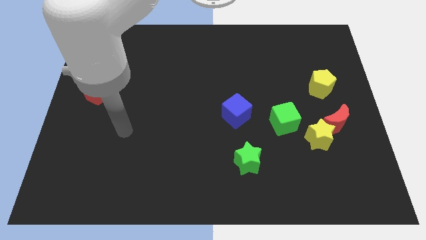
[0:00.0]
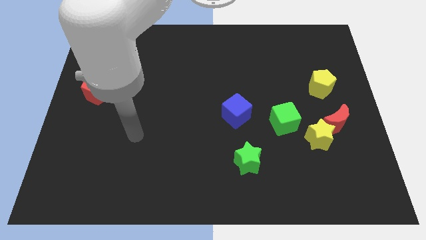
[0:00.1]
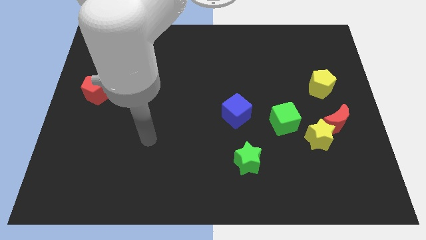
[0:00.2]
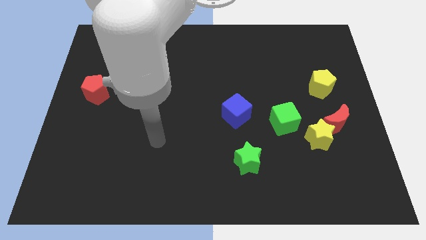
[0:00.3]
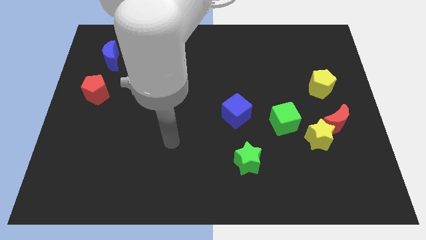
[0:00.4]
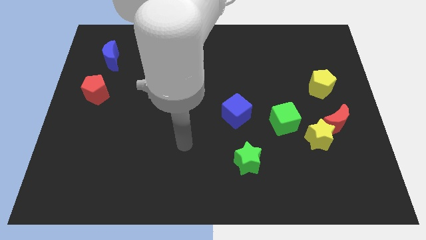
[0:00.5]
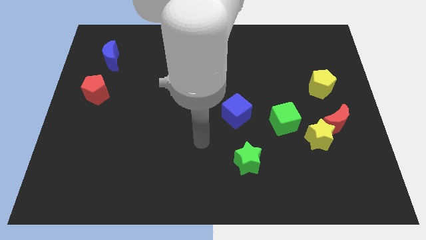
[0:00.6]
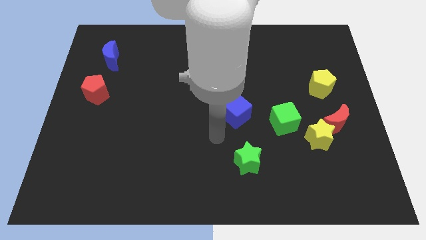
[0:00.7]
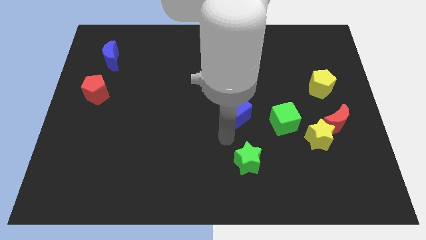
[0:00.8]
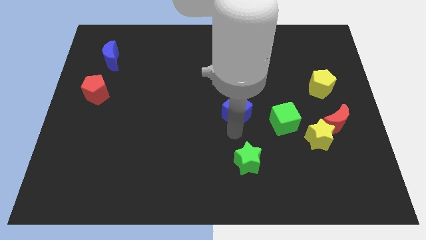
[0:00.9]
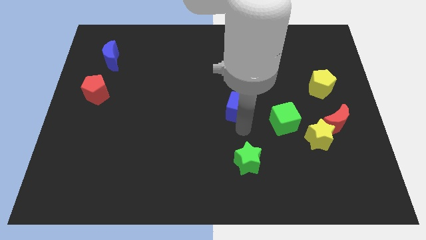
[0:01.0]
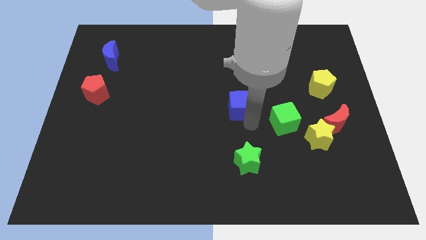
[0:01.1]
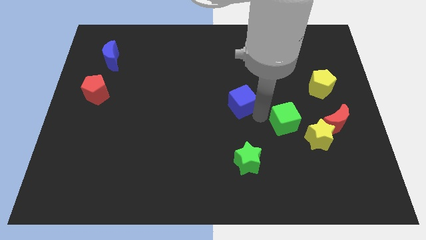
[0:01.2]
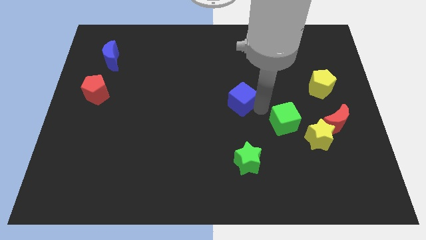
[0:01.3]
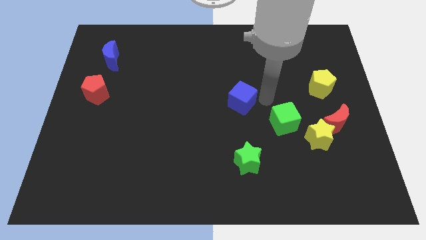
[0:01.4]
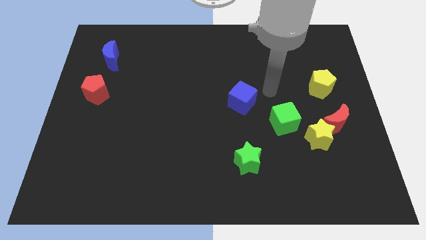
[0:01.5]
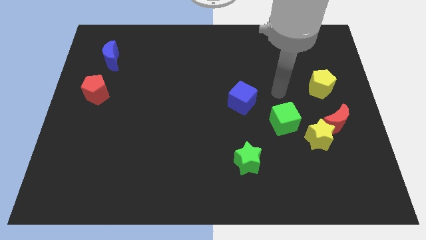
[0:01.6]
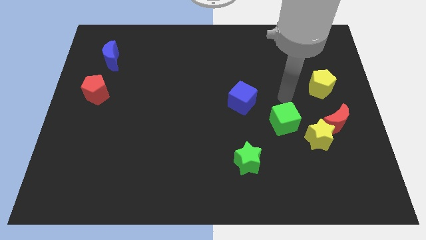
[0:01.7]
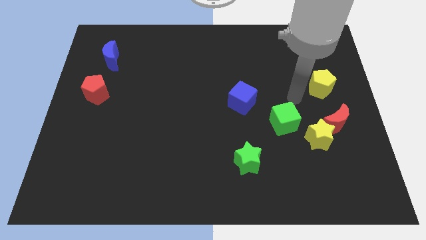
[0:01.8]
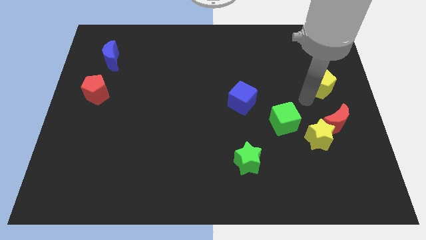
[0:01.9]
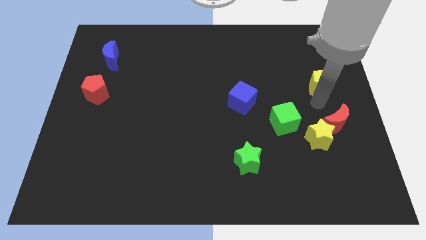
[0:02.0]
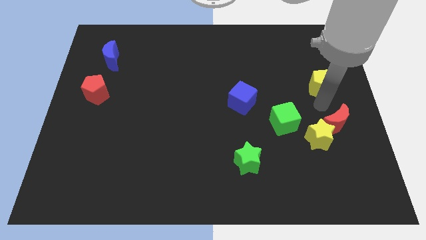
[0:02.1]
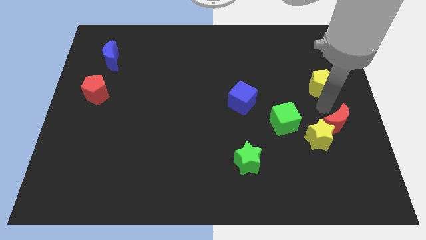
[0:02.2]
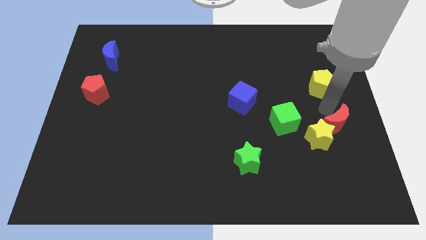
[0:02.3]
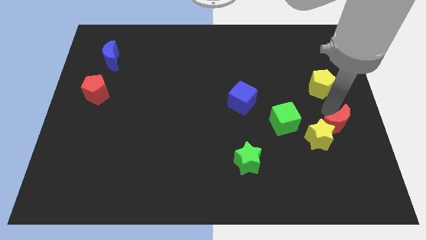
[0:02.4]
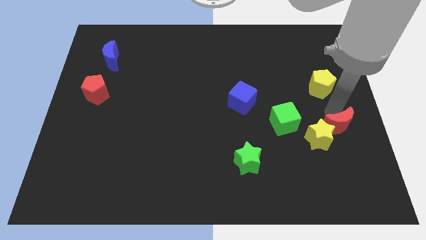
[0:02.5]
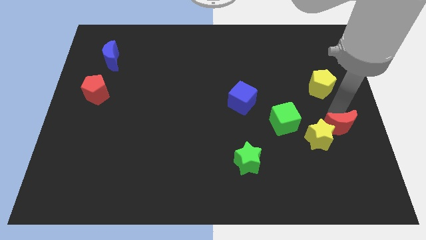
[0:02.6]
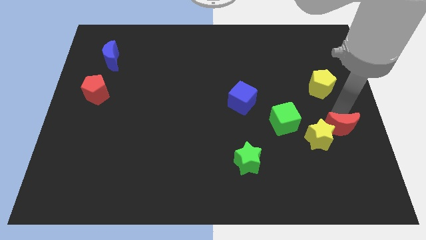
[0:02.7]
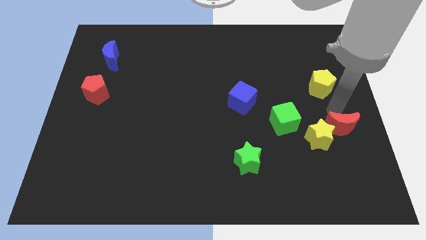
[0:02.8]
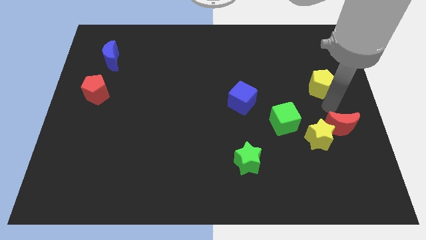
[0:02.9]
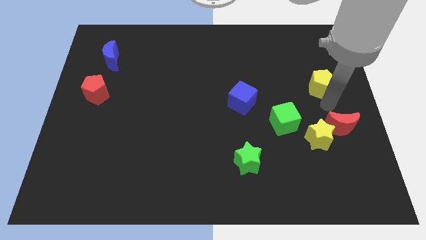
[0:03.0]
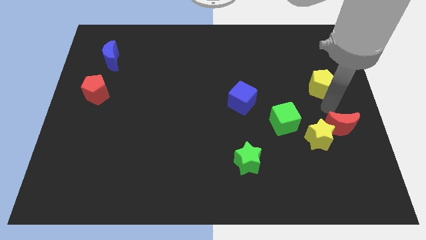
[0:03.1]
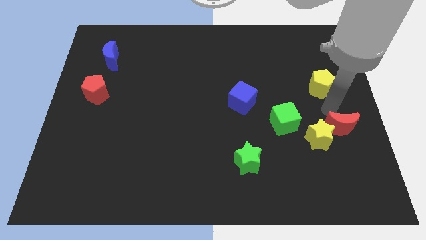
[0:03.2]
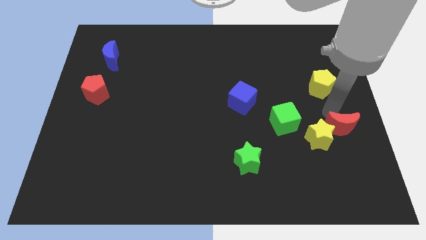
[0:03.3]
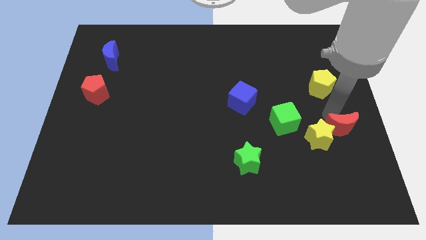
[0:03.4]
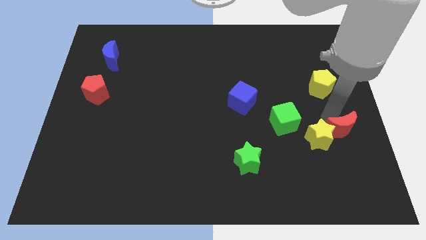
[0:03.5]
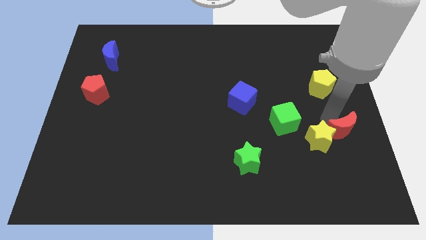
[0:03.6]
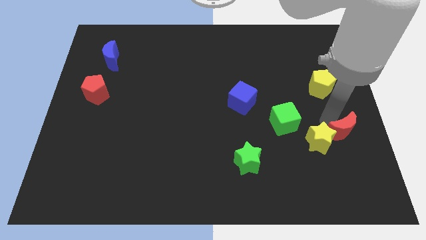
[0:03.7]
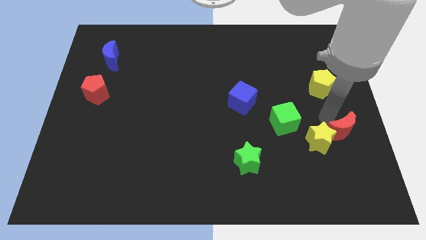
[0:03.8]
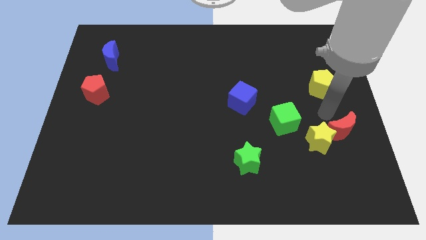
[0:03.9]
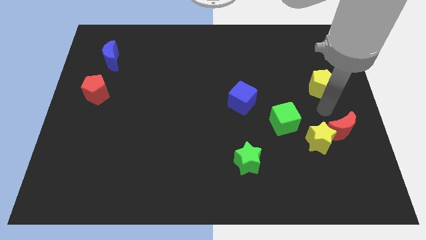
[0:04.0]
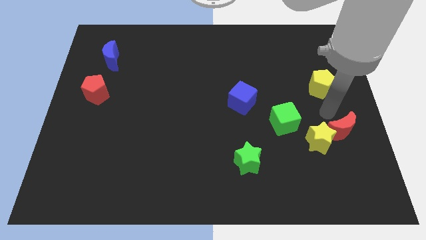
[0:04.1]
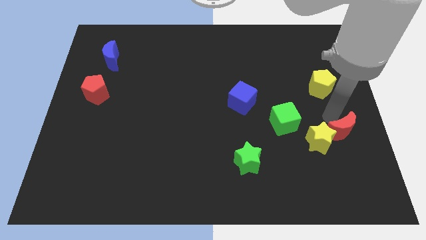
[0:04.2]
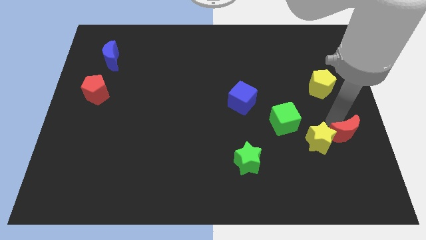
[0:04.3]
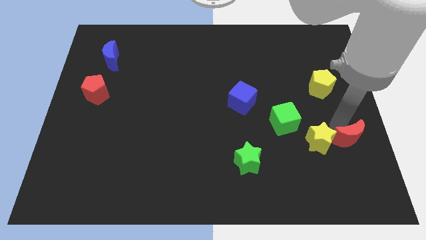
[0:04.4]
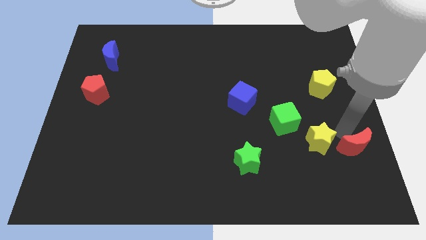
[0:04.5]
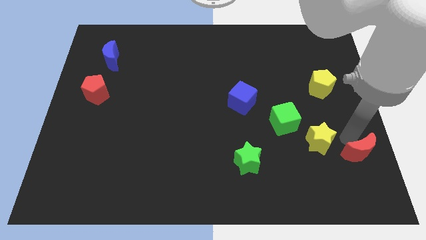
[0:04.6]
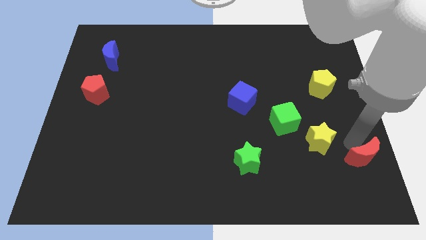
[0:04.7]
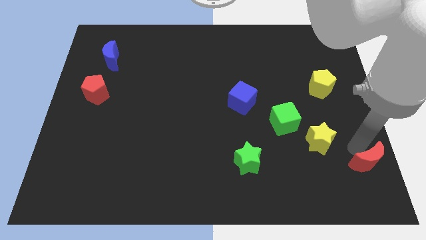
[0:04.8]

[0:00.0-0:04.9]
move the red moon to the bottom right of the board

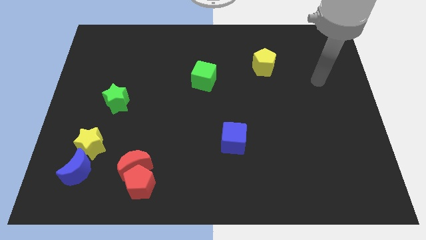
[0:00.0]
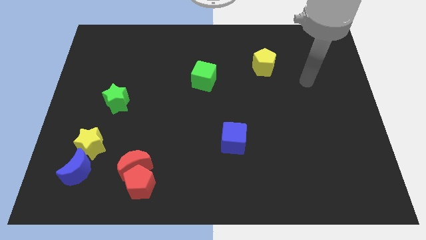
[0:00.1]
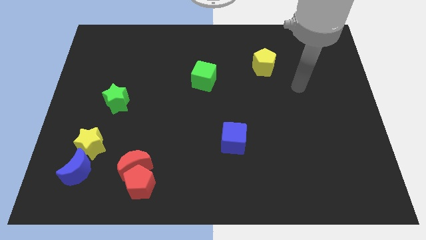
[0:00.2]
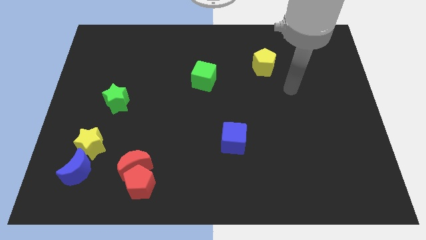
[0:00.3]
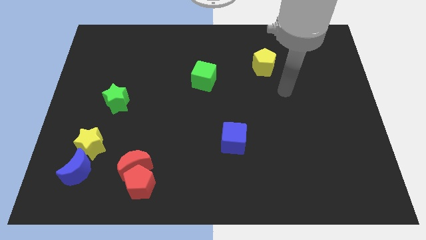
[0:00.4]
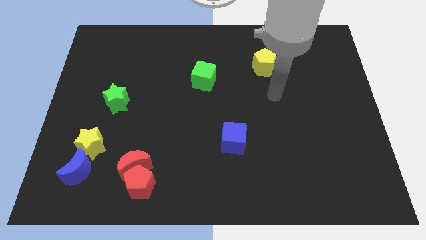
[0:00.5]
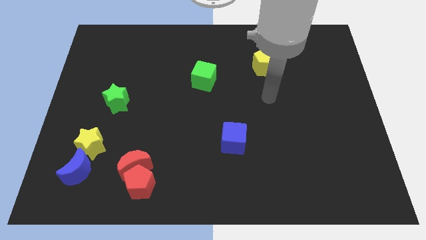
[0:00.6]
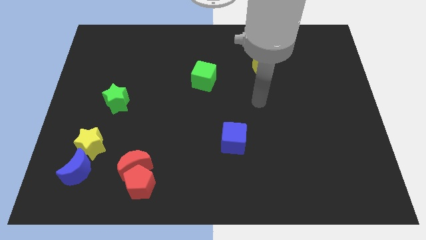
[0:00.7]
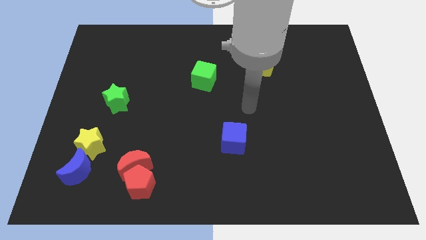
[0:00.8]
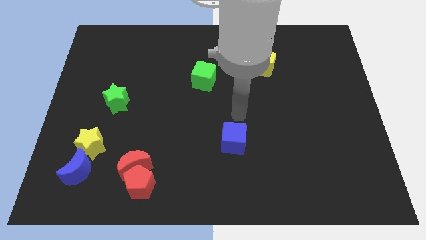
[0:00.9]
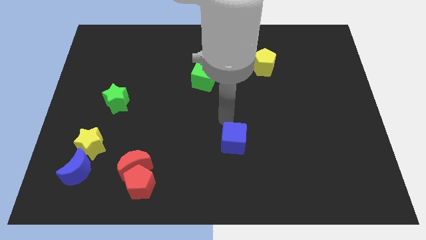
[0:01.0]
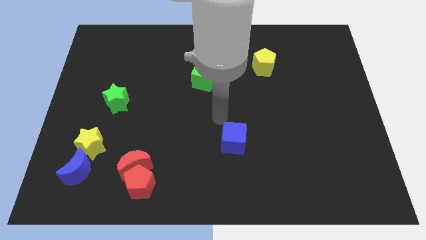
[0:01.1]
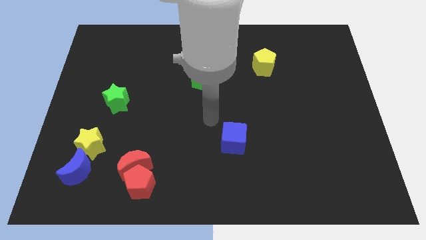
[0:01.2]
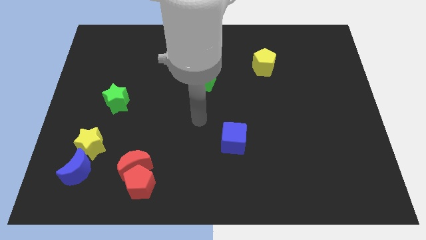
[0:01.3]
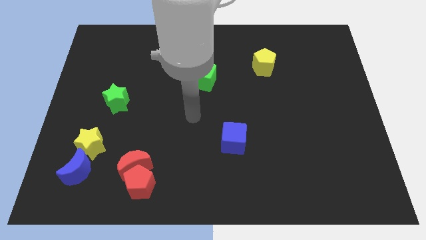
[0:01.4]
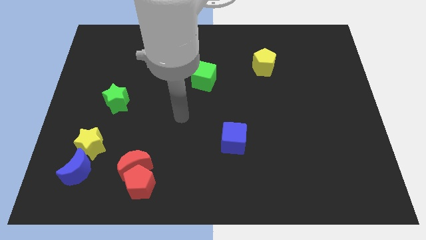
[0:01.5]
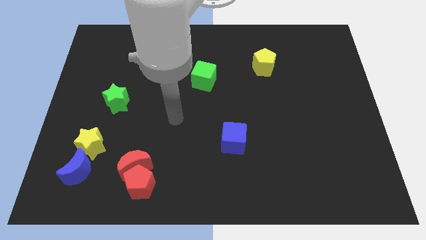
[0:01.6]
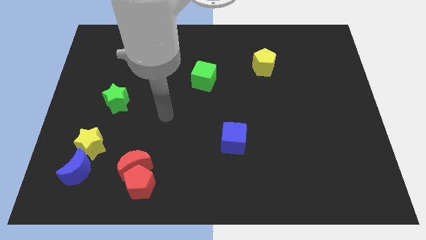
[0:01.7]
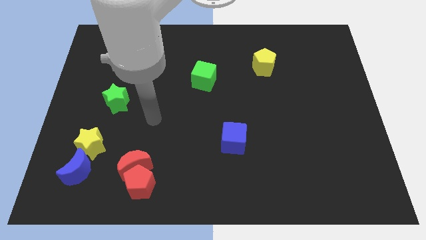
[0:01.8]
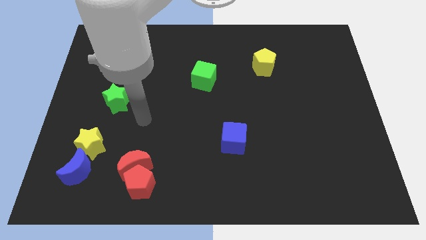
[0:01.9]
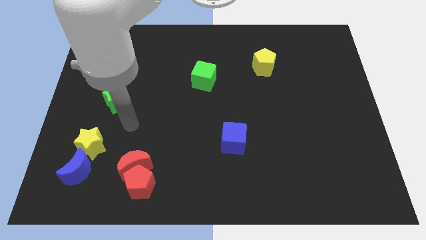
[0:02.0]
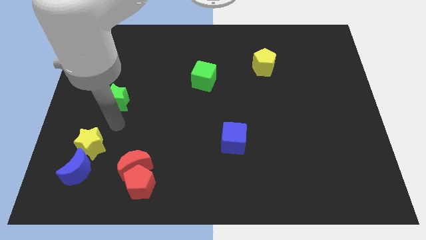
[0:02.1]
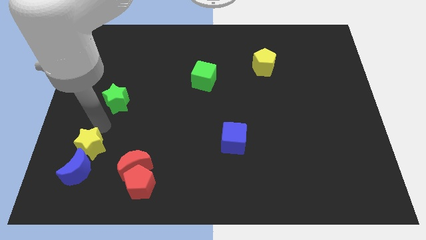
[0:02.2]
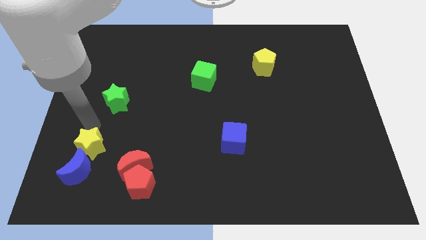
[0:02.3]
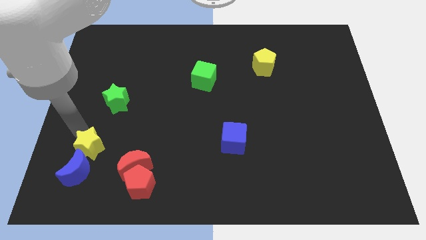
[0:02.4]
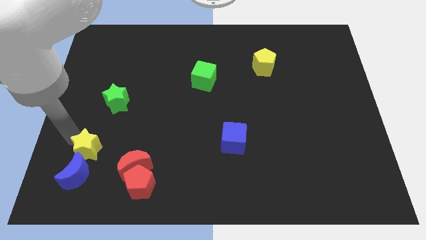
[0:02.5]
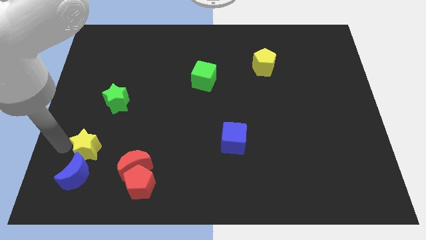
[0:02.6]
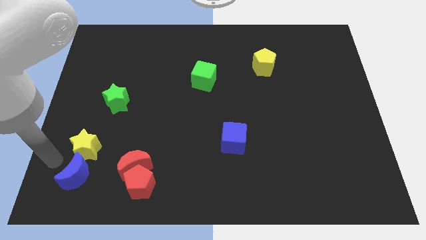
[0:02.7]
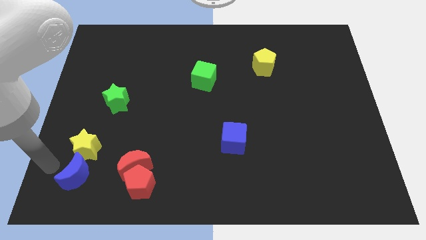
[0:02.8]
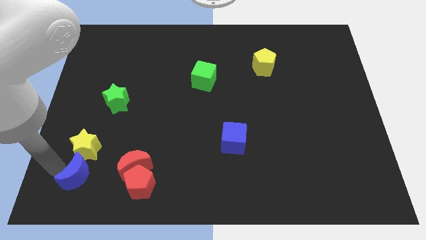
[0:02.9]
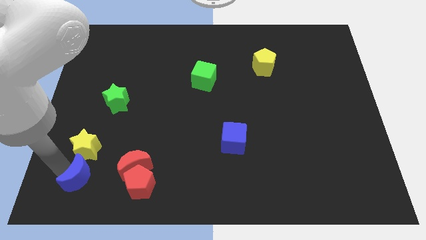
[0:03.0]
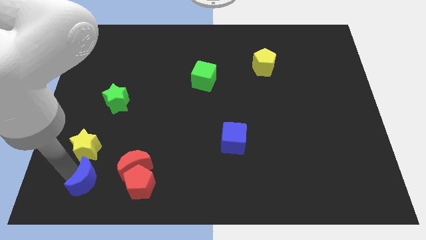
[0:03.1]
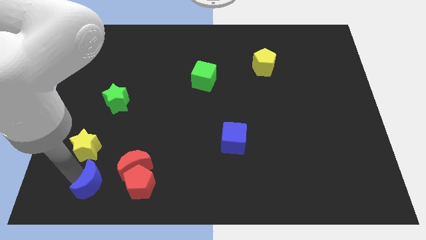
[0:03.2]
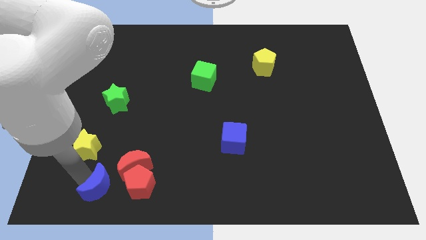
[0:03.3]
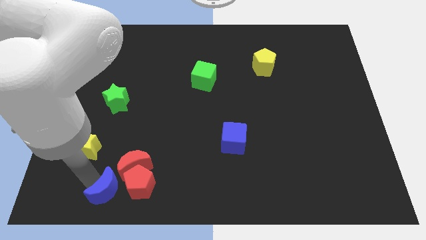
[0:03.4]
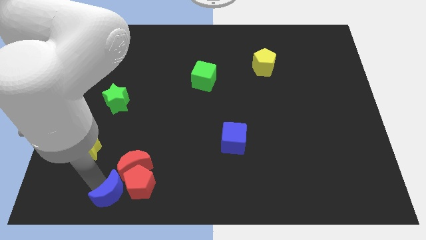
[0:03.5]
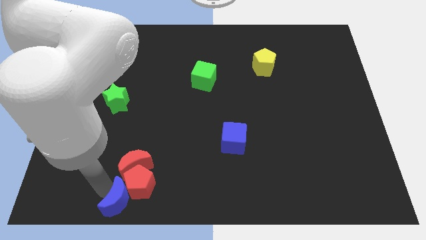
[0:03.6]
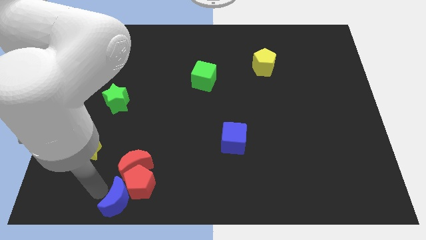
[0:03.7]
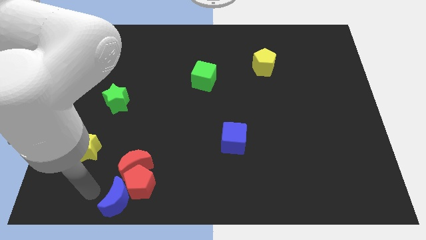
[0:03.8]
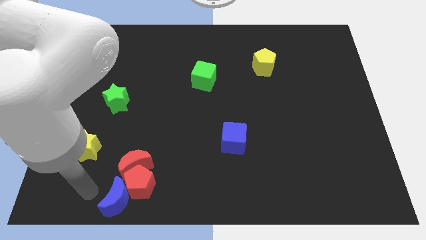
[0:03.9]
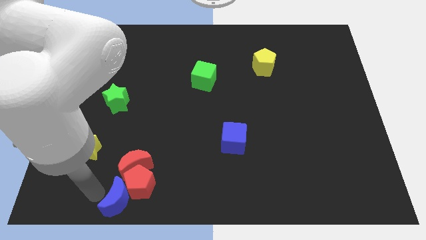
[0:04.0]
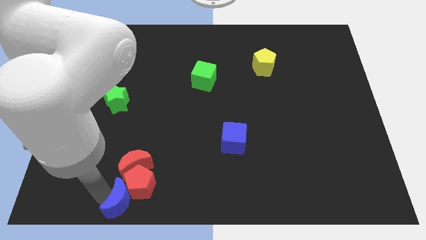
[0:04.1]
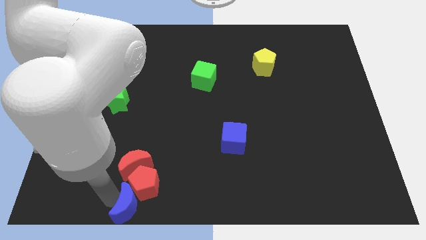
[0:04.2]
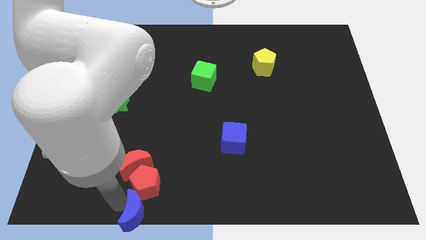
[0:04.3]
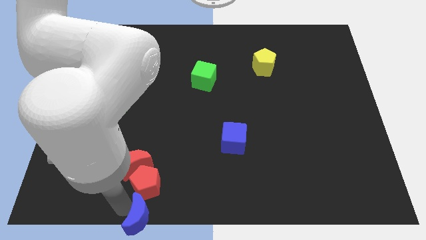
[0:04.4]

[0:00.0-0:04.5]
push the blue moon to the bottom
